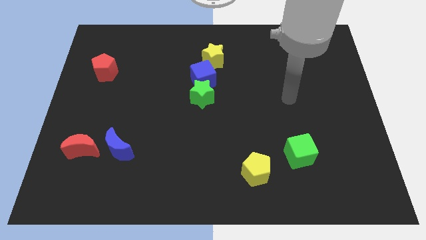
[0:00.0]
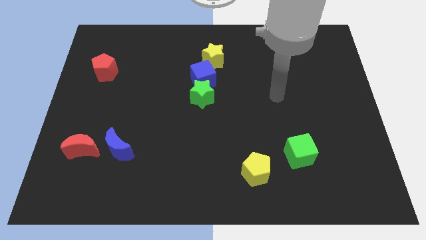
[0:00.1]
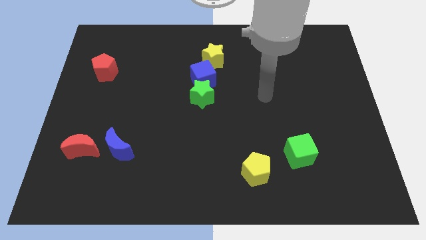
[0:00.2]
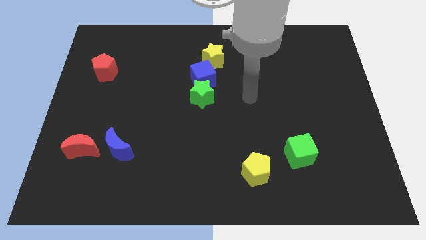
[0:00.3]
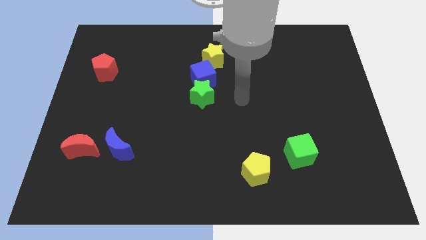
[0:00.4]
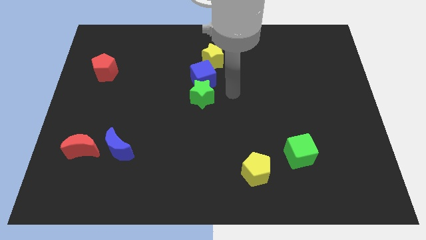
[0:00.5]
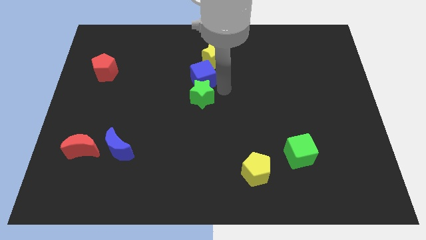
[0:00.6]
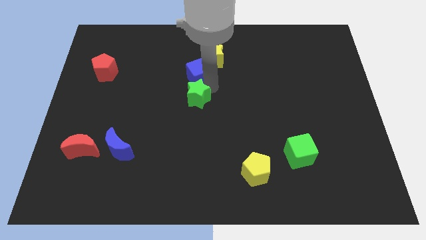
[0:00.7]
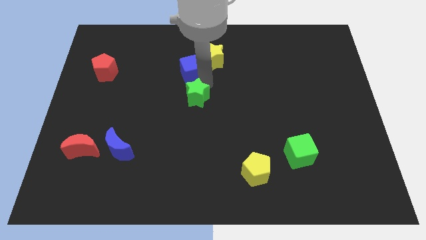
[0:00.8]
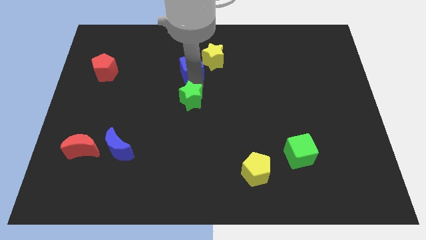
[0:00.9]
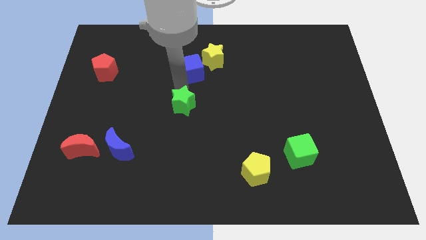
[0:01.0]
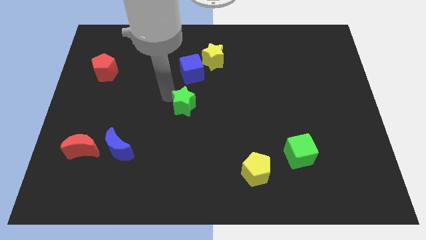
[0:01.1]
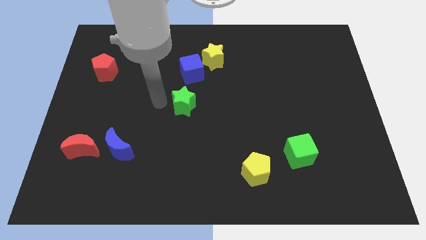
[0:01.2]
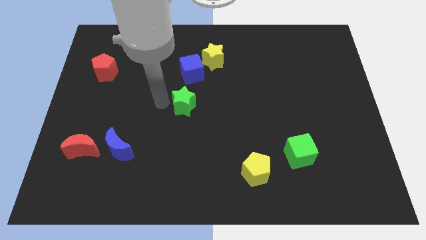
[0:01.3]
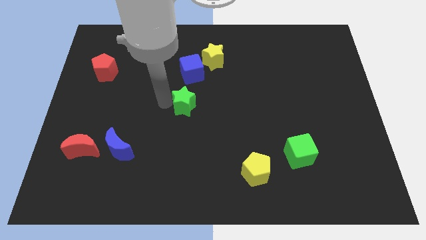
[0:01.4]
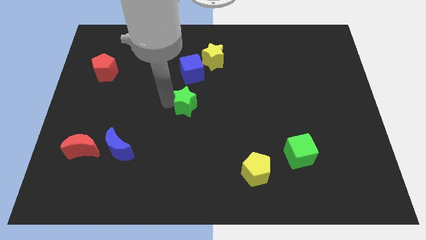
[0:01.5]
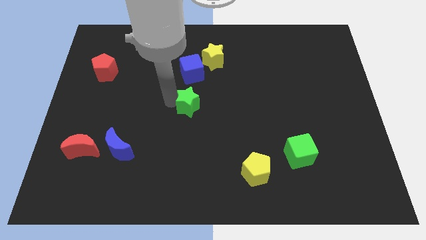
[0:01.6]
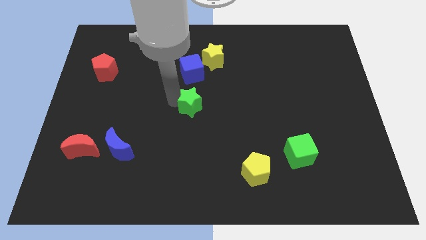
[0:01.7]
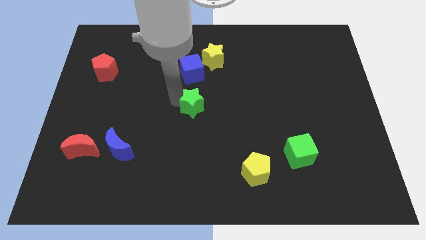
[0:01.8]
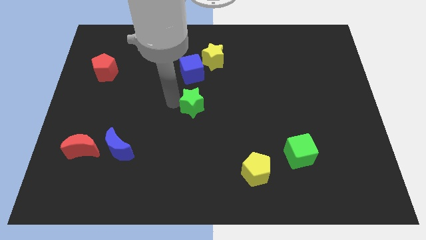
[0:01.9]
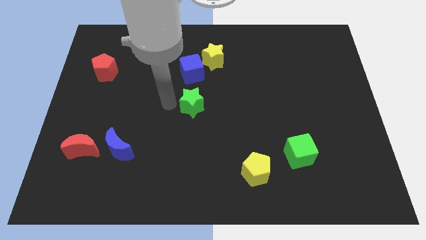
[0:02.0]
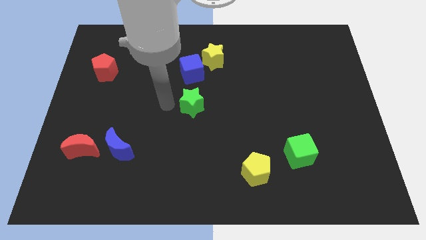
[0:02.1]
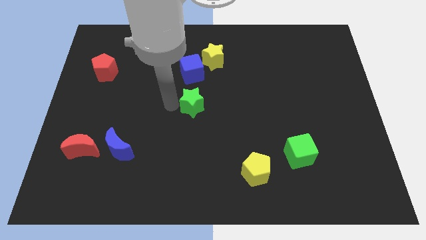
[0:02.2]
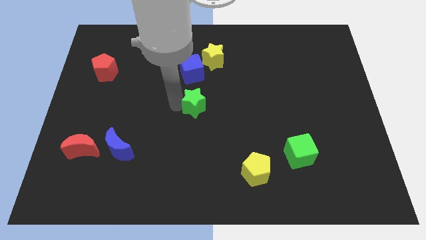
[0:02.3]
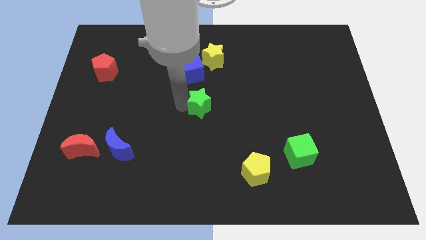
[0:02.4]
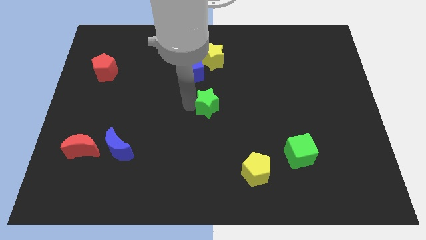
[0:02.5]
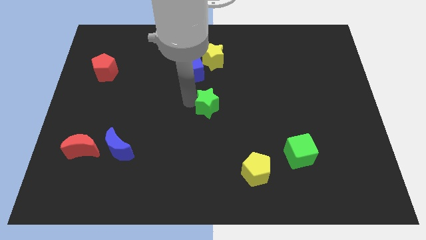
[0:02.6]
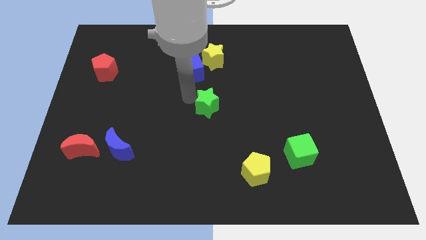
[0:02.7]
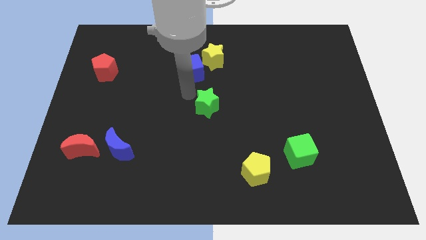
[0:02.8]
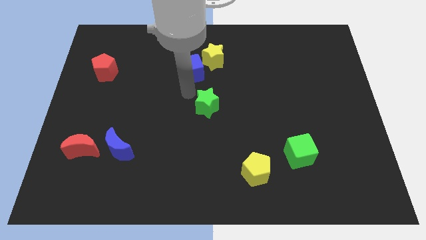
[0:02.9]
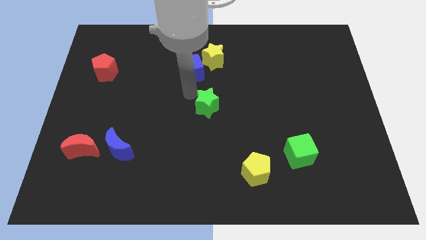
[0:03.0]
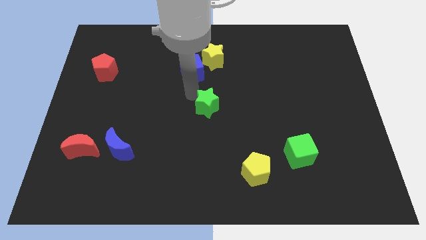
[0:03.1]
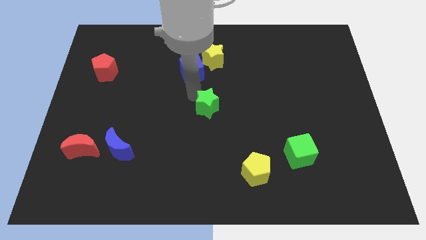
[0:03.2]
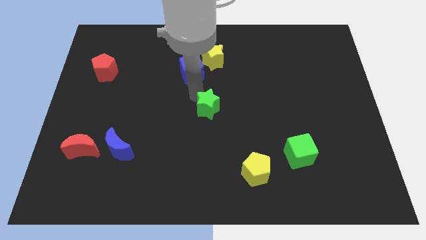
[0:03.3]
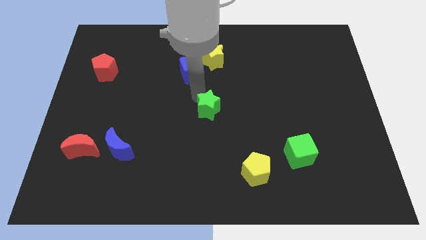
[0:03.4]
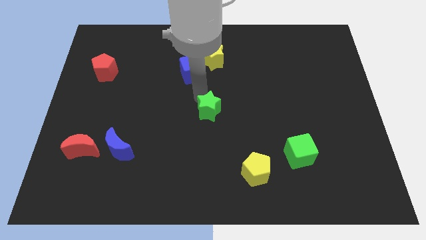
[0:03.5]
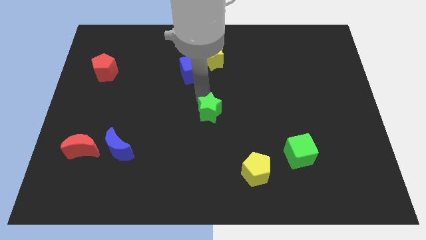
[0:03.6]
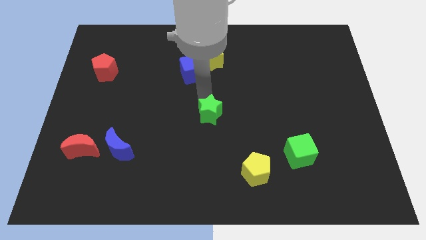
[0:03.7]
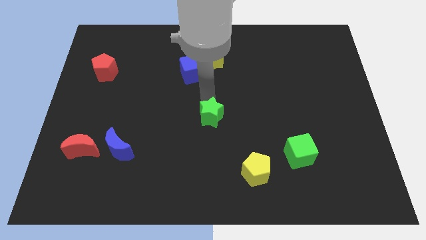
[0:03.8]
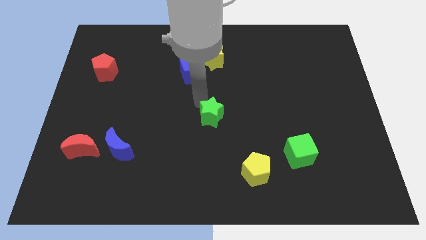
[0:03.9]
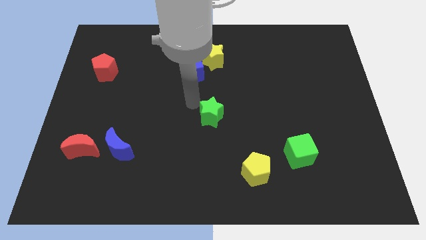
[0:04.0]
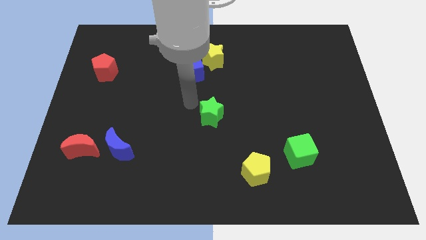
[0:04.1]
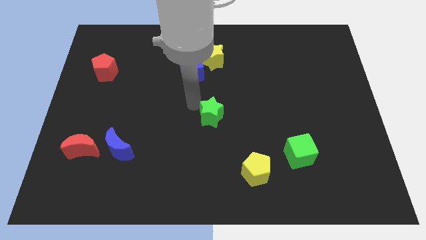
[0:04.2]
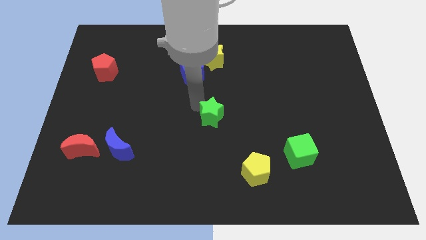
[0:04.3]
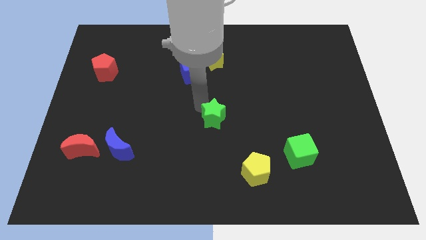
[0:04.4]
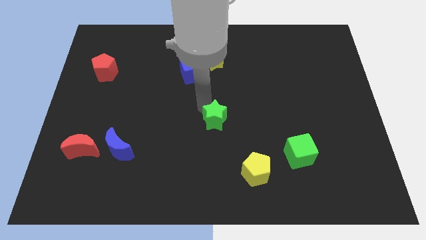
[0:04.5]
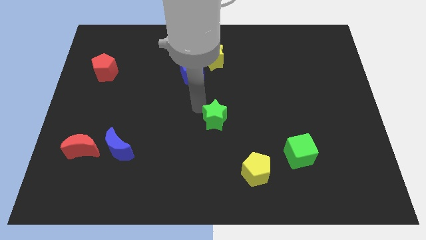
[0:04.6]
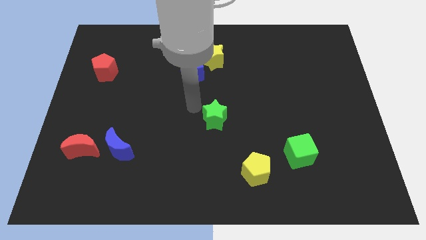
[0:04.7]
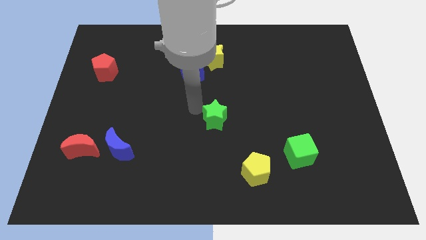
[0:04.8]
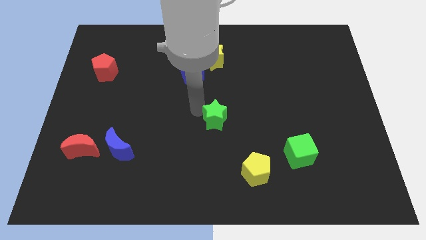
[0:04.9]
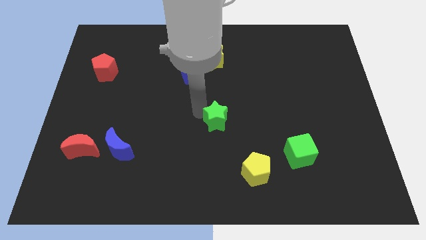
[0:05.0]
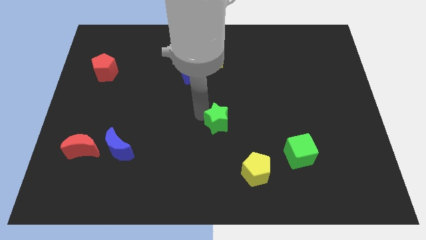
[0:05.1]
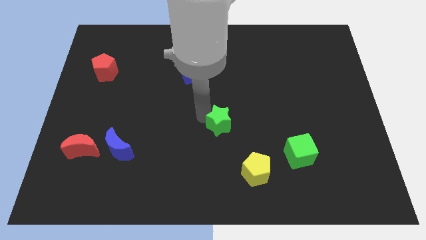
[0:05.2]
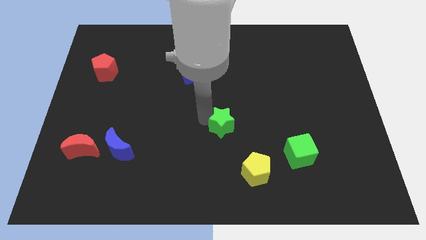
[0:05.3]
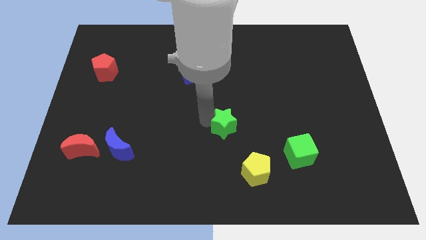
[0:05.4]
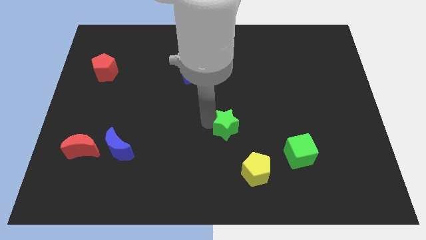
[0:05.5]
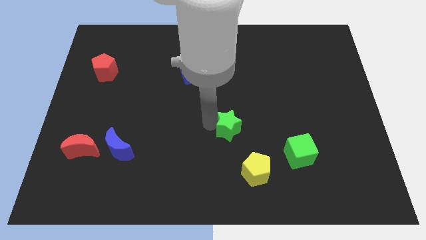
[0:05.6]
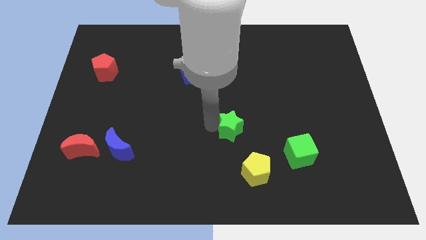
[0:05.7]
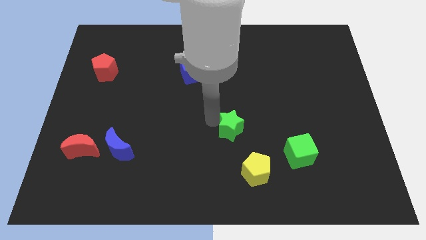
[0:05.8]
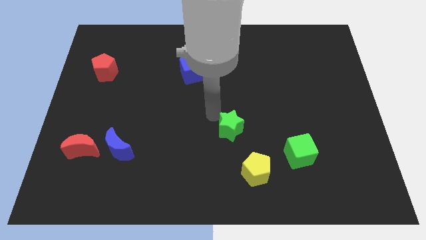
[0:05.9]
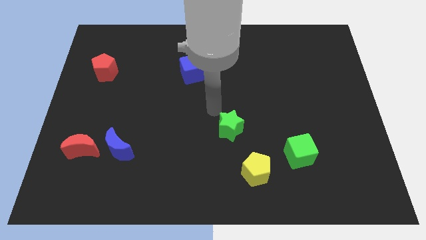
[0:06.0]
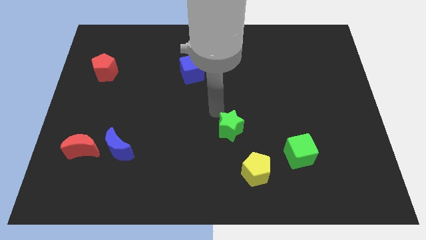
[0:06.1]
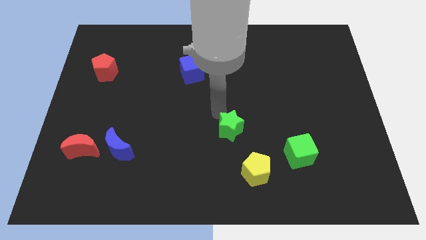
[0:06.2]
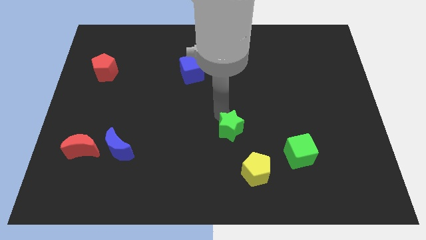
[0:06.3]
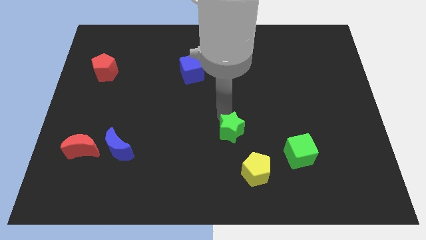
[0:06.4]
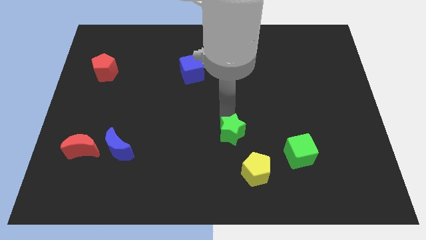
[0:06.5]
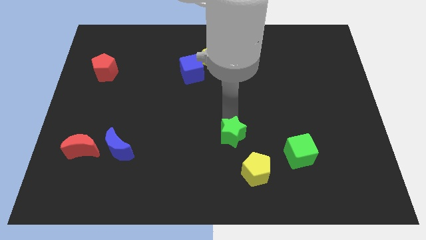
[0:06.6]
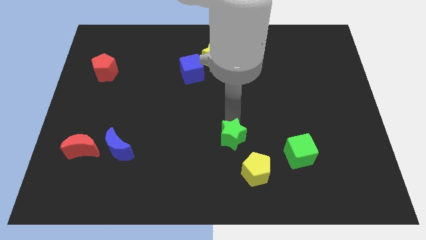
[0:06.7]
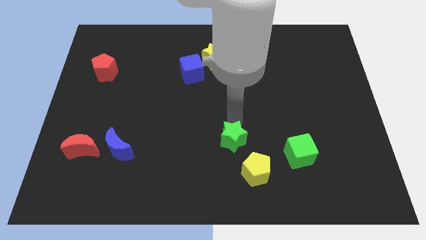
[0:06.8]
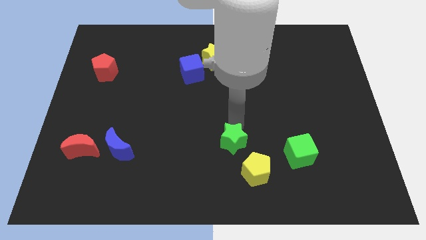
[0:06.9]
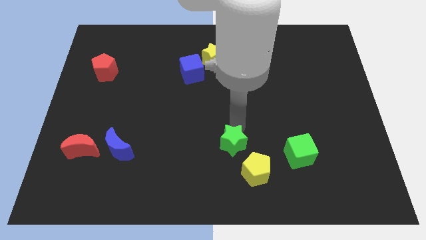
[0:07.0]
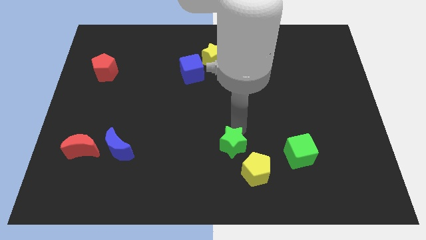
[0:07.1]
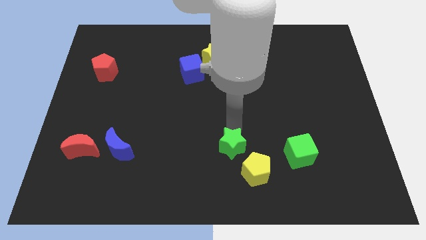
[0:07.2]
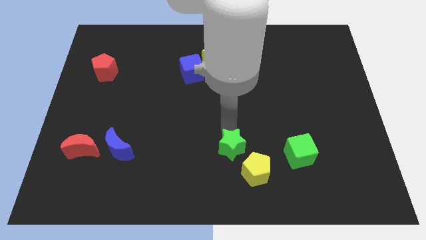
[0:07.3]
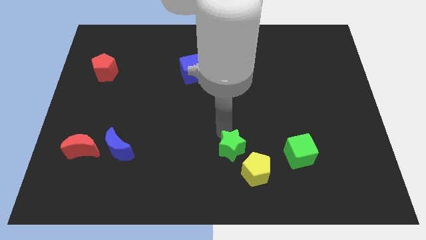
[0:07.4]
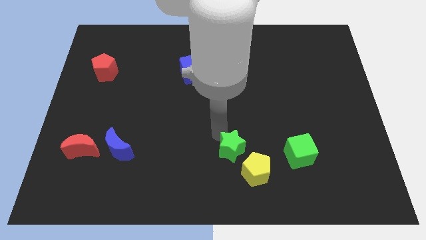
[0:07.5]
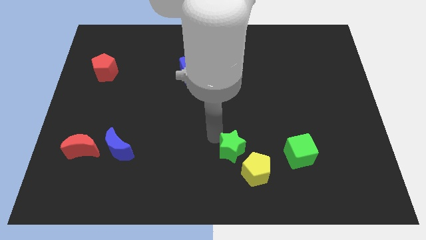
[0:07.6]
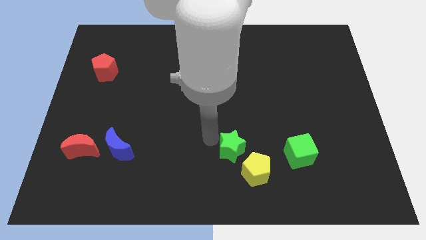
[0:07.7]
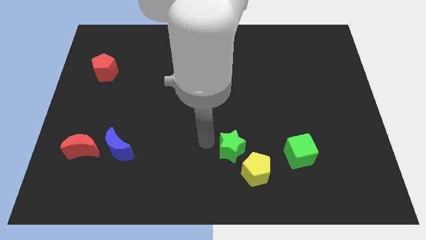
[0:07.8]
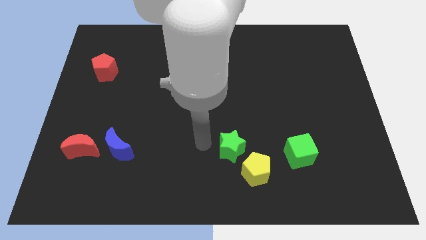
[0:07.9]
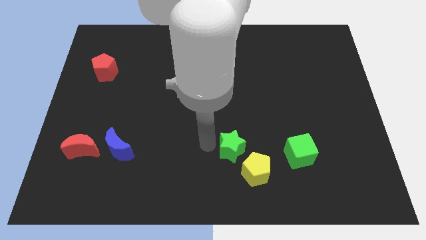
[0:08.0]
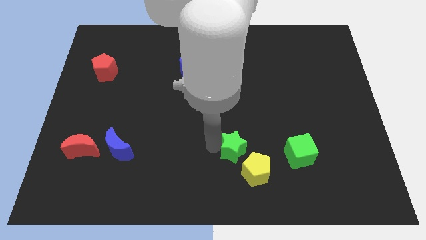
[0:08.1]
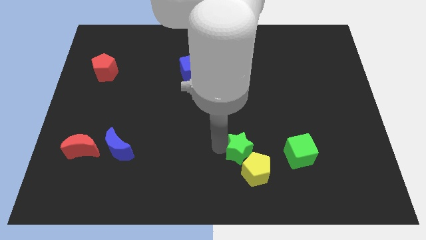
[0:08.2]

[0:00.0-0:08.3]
move the green star to the yellow pentagon
